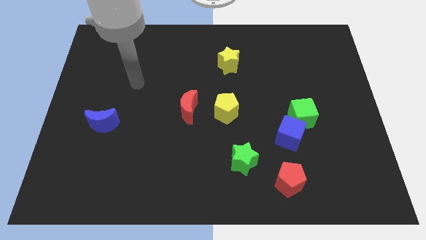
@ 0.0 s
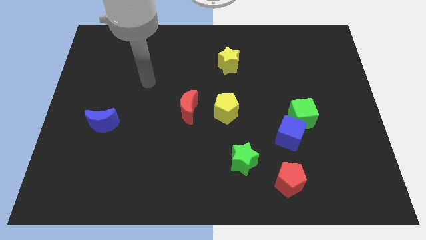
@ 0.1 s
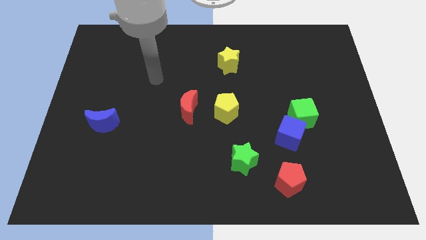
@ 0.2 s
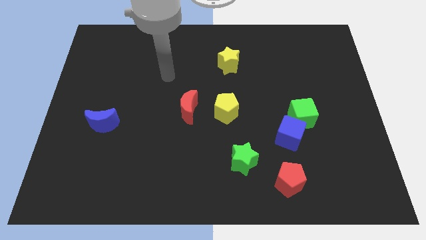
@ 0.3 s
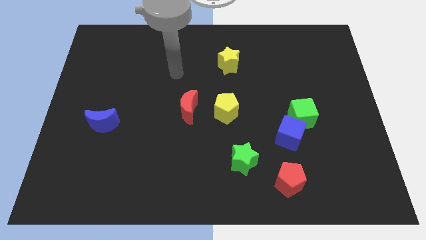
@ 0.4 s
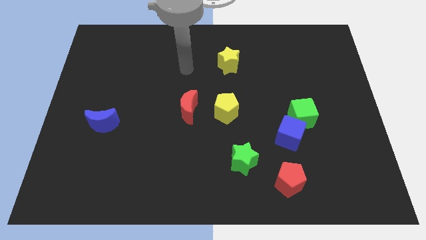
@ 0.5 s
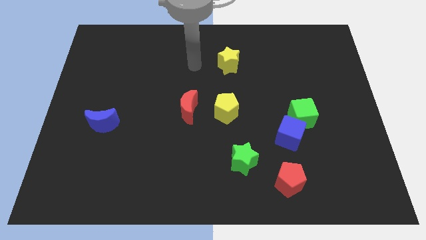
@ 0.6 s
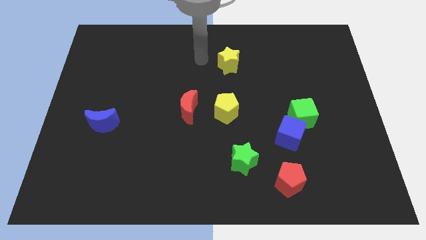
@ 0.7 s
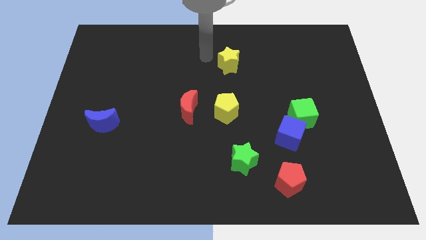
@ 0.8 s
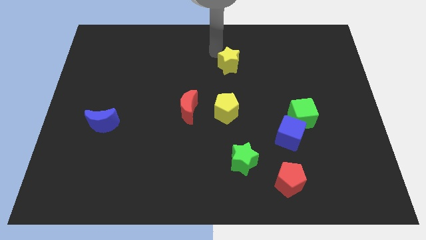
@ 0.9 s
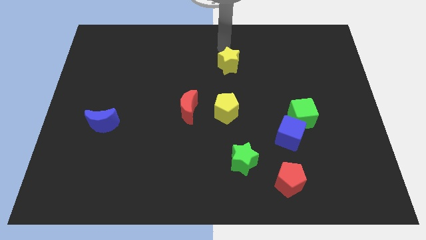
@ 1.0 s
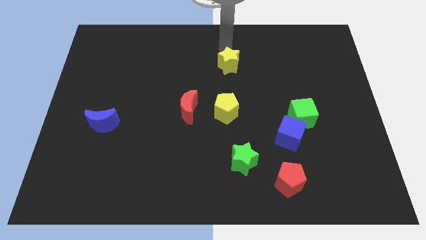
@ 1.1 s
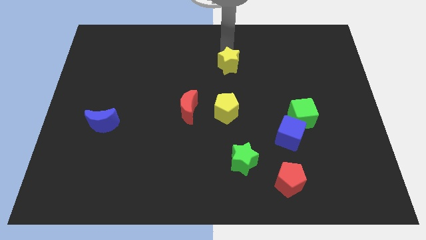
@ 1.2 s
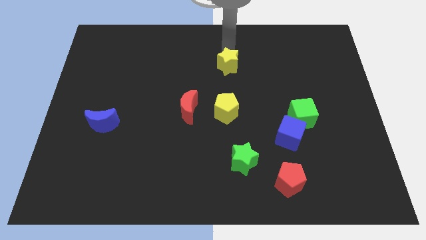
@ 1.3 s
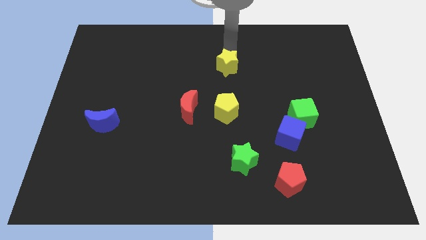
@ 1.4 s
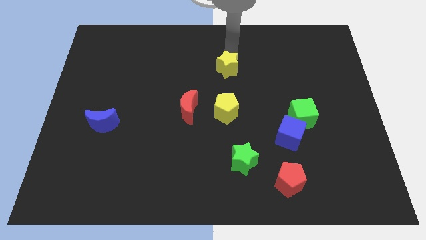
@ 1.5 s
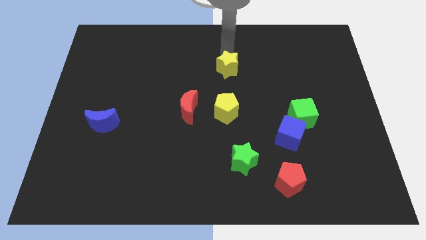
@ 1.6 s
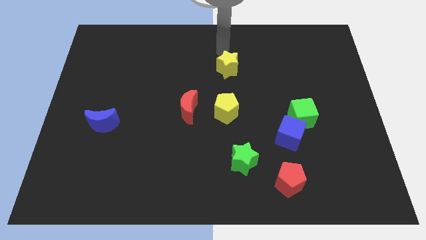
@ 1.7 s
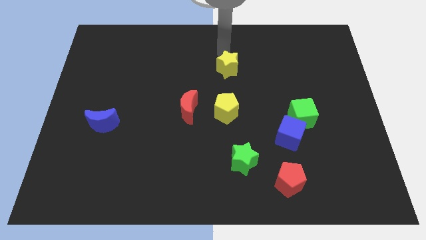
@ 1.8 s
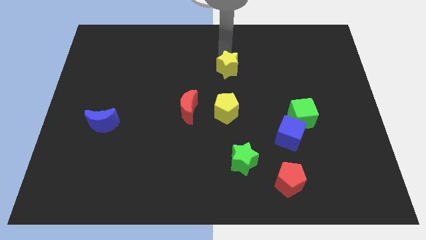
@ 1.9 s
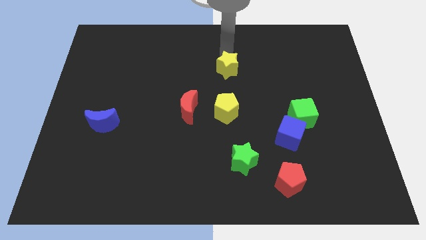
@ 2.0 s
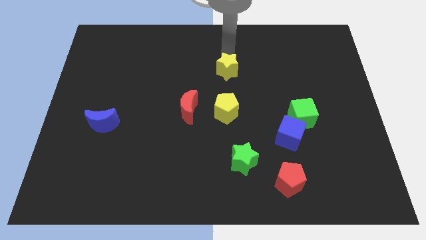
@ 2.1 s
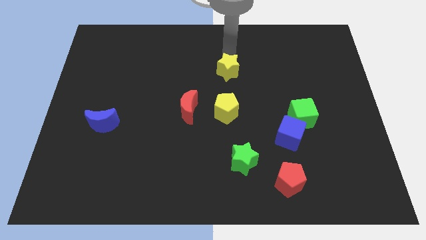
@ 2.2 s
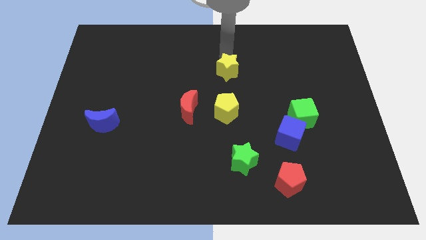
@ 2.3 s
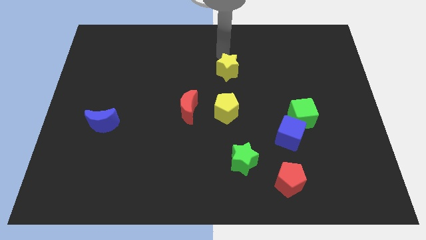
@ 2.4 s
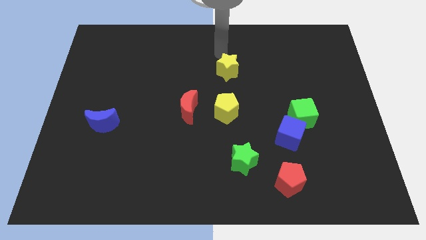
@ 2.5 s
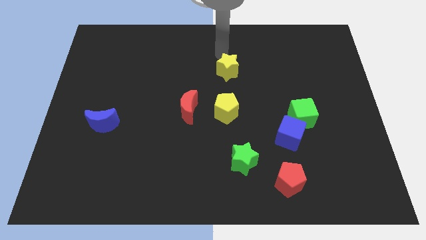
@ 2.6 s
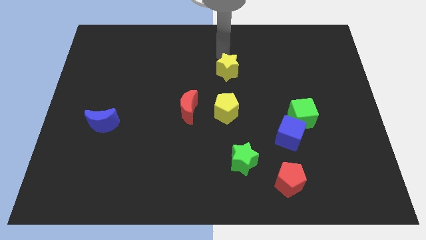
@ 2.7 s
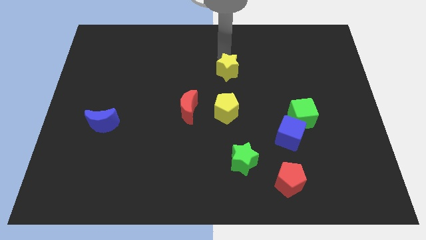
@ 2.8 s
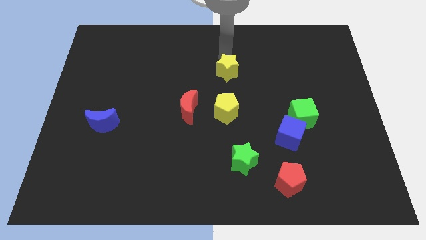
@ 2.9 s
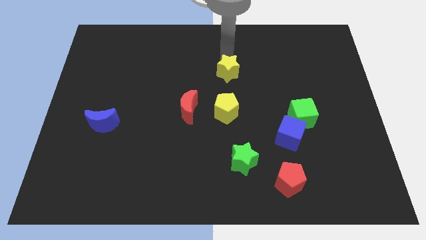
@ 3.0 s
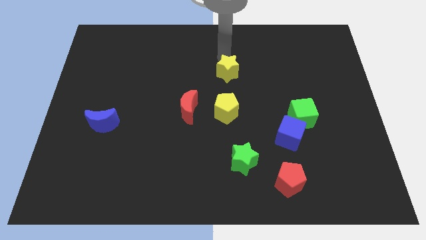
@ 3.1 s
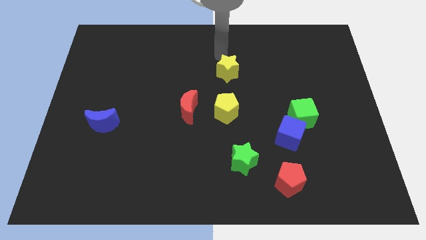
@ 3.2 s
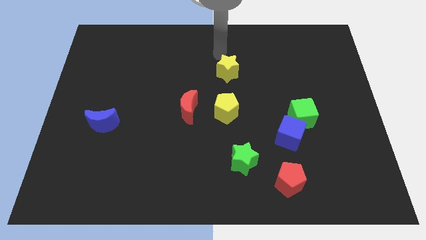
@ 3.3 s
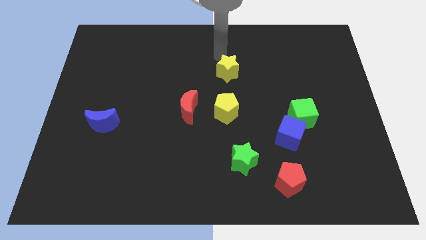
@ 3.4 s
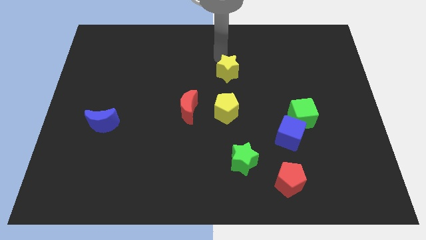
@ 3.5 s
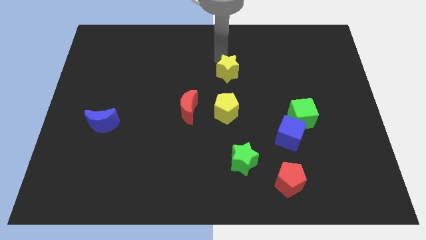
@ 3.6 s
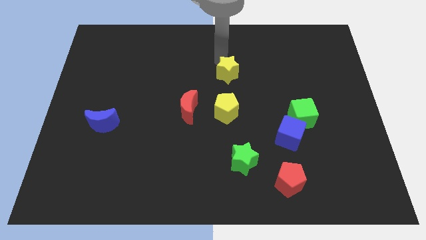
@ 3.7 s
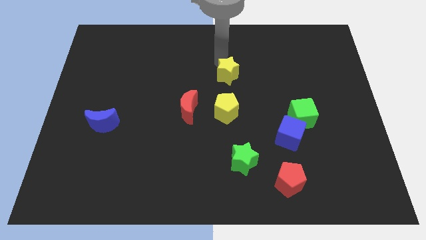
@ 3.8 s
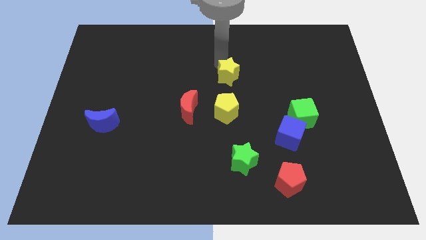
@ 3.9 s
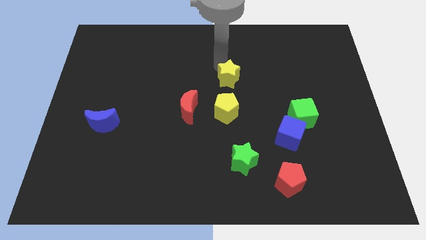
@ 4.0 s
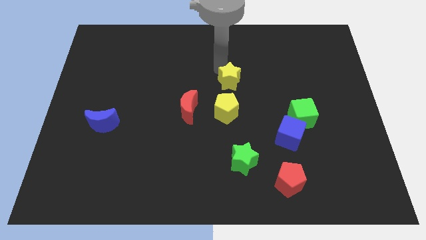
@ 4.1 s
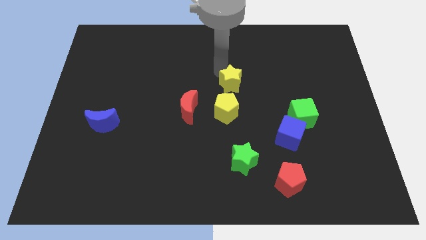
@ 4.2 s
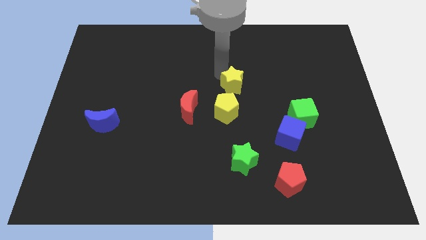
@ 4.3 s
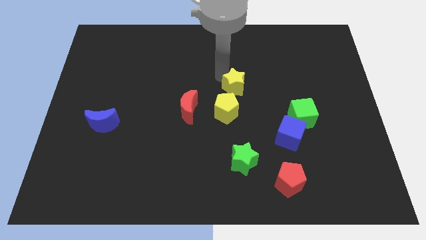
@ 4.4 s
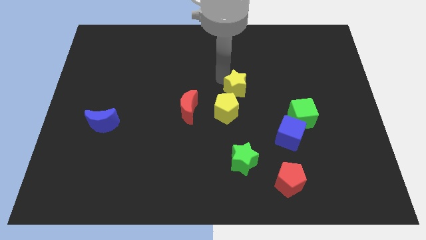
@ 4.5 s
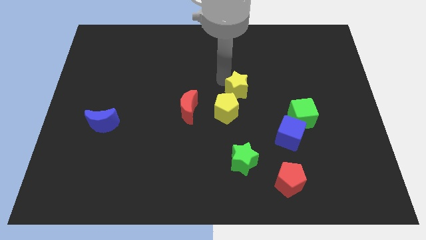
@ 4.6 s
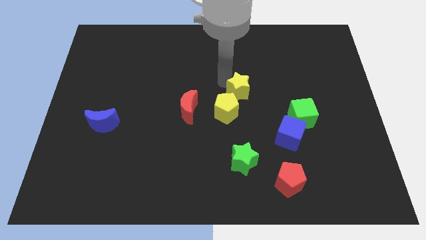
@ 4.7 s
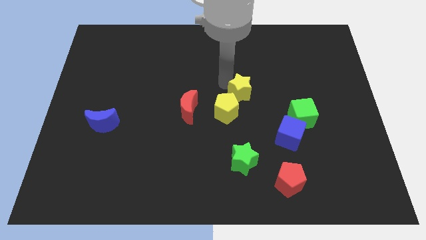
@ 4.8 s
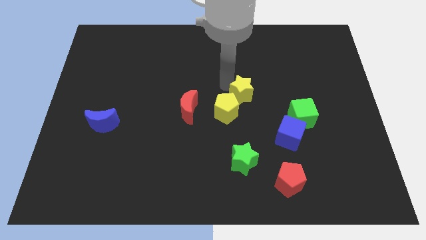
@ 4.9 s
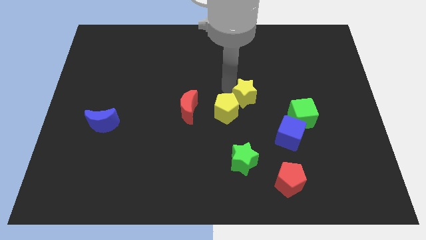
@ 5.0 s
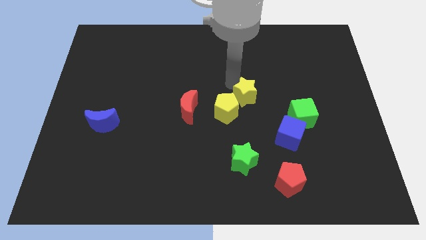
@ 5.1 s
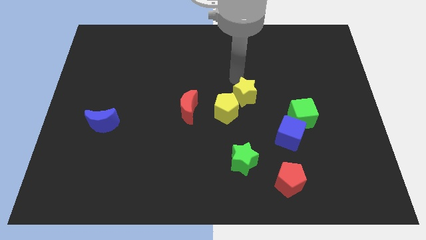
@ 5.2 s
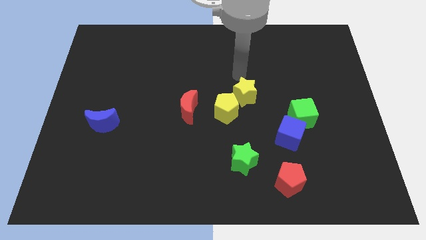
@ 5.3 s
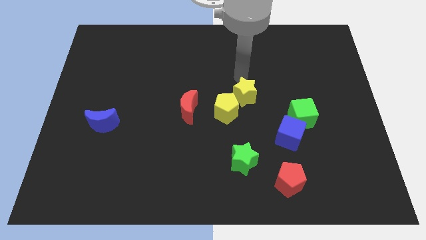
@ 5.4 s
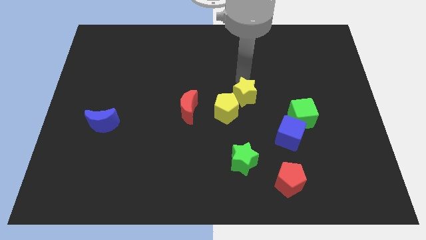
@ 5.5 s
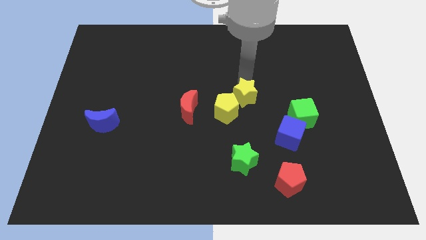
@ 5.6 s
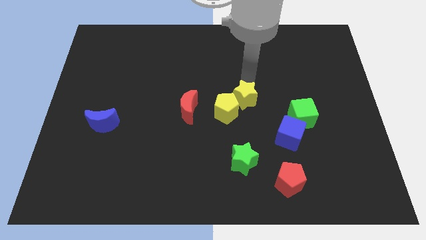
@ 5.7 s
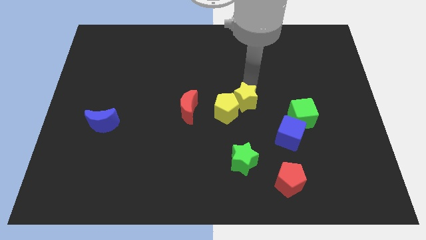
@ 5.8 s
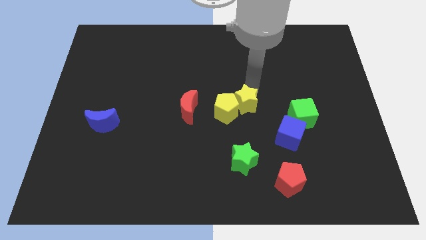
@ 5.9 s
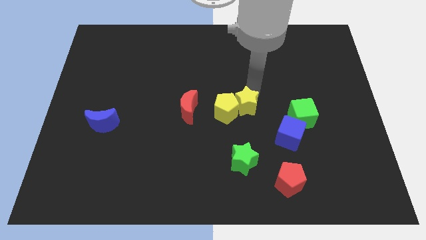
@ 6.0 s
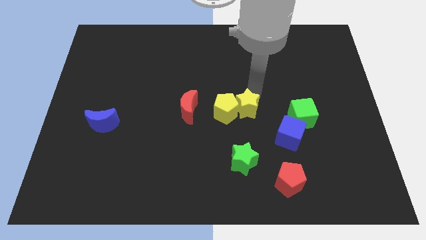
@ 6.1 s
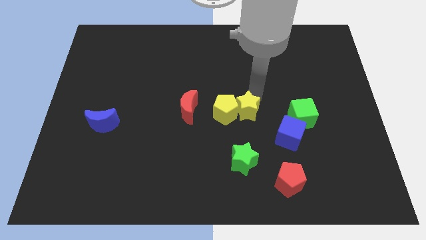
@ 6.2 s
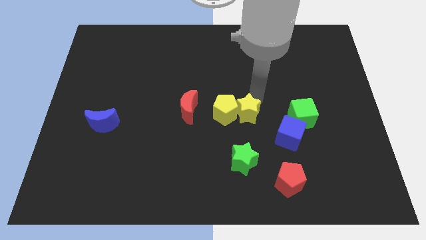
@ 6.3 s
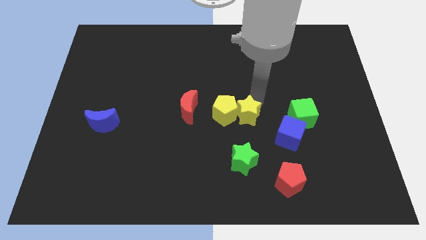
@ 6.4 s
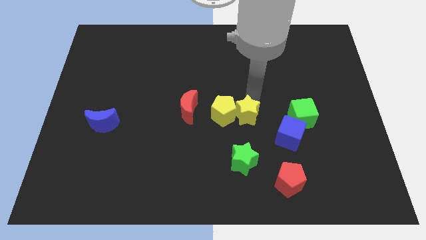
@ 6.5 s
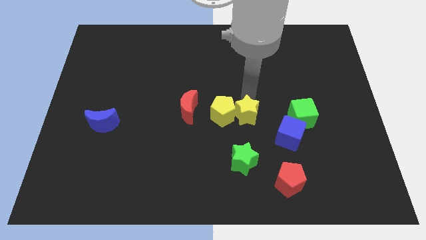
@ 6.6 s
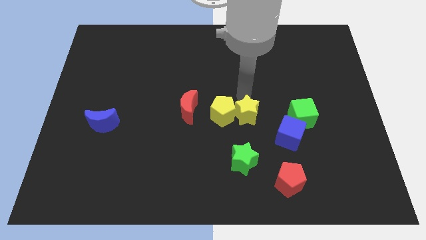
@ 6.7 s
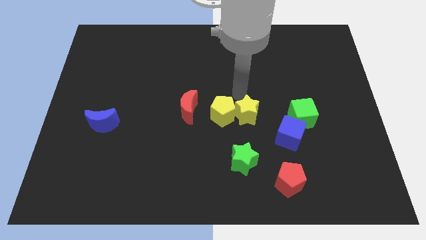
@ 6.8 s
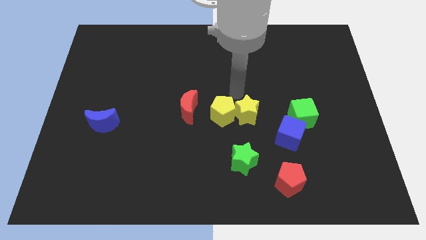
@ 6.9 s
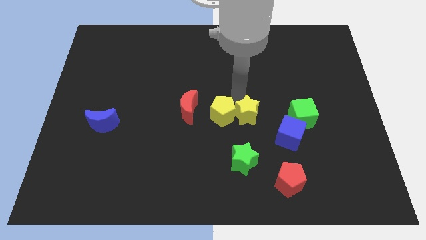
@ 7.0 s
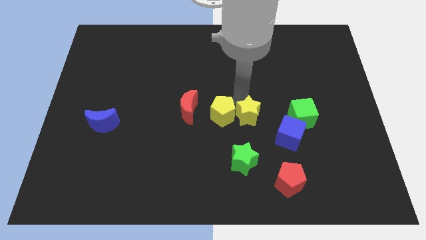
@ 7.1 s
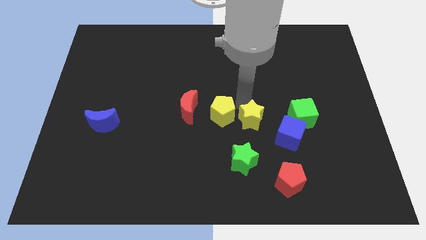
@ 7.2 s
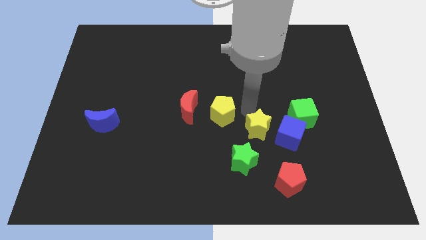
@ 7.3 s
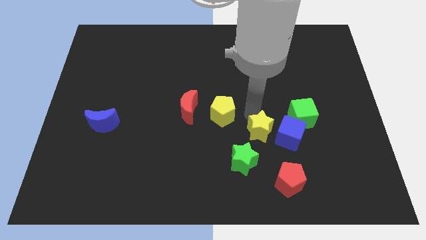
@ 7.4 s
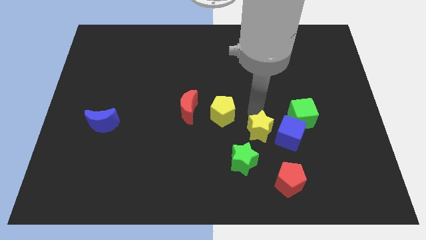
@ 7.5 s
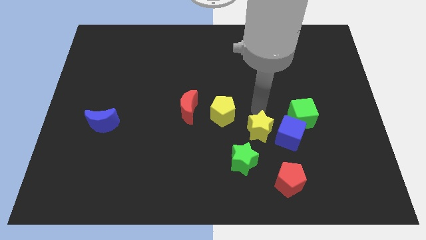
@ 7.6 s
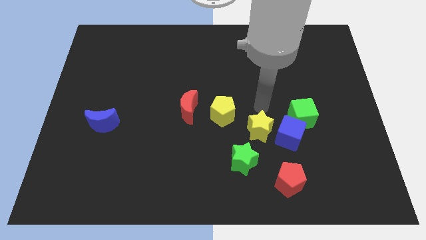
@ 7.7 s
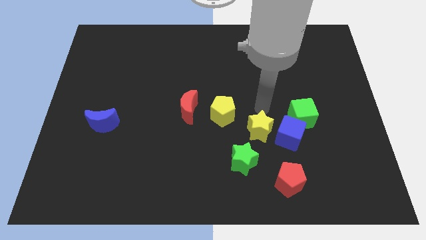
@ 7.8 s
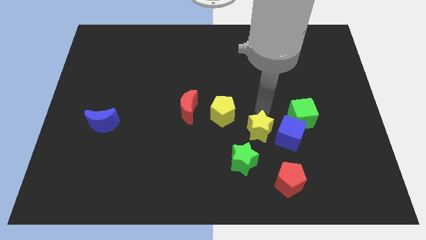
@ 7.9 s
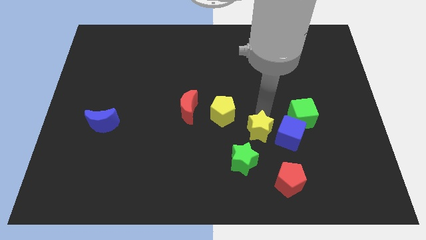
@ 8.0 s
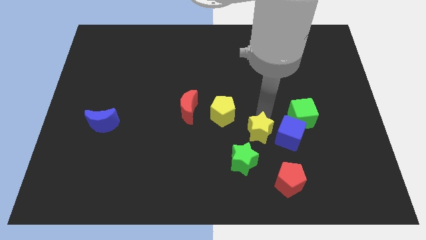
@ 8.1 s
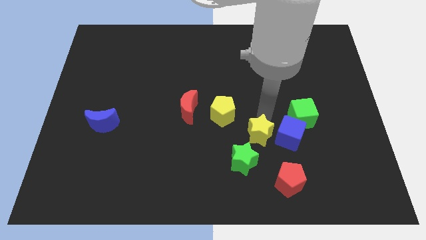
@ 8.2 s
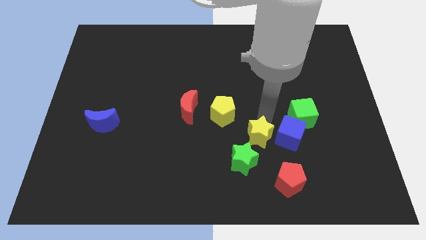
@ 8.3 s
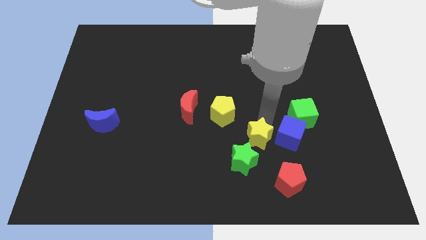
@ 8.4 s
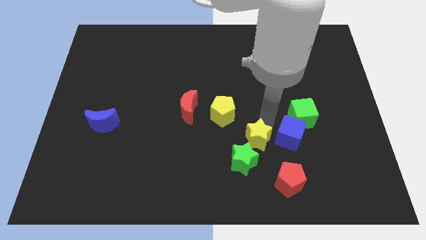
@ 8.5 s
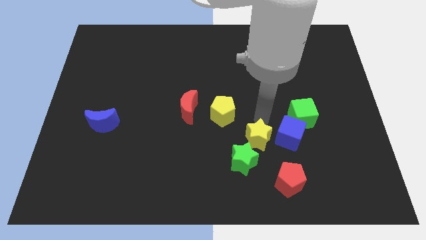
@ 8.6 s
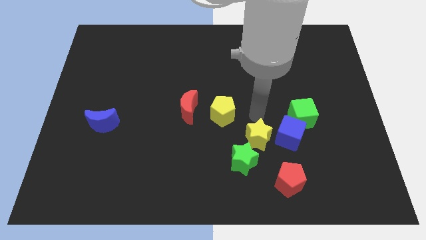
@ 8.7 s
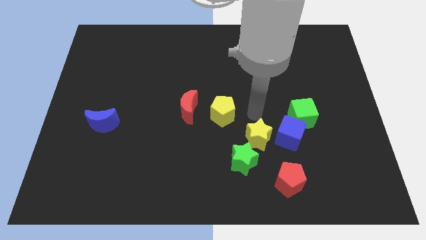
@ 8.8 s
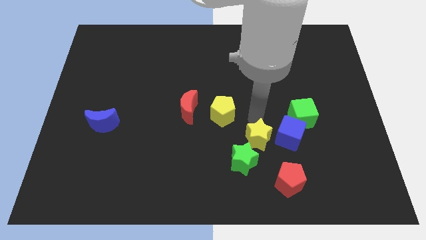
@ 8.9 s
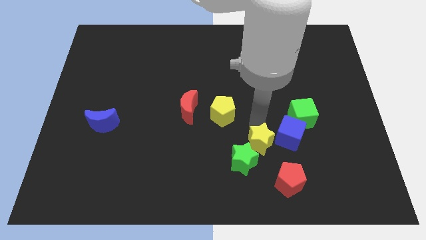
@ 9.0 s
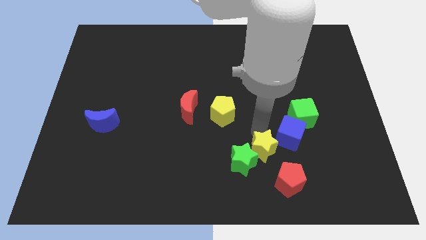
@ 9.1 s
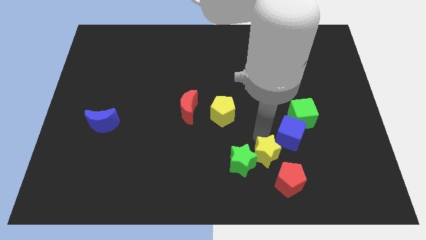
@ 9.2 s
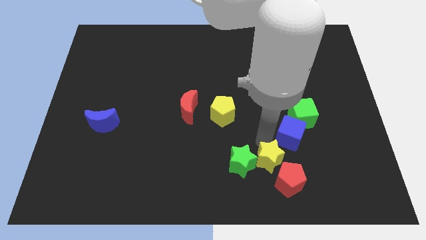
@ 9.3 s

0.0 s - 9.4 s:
push the yellow star to the bottom side of the blue cube
